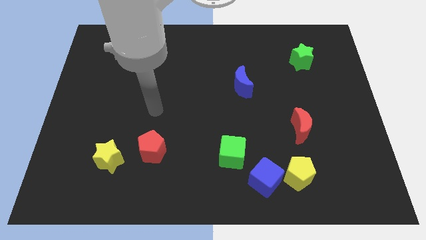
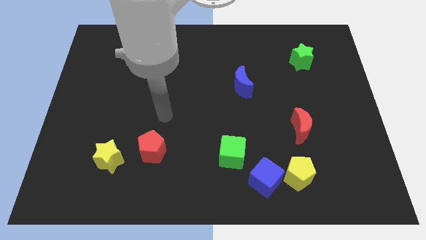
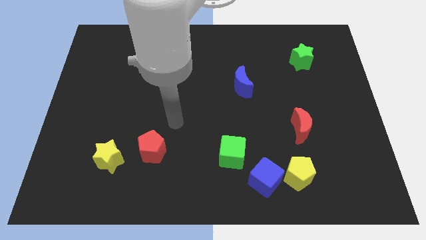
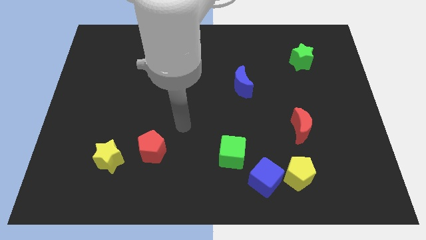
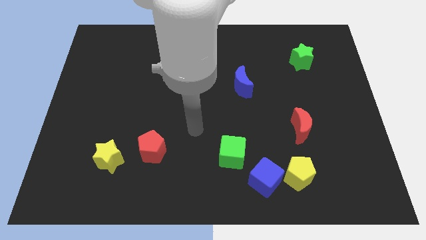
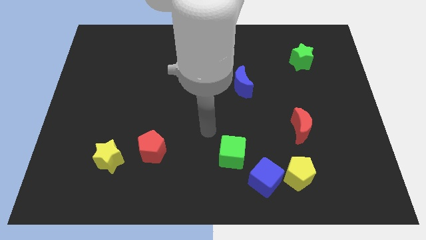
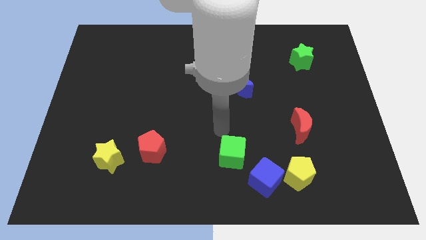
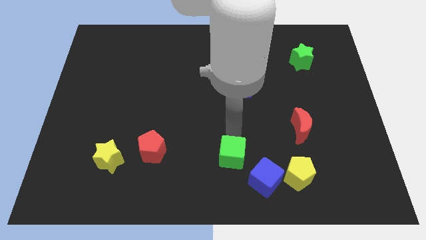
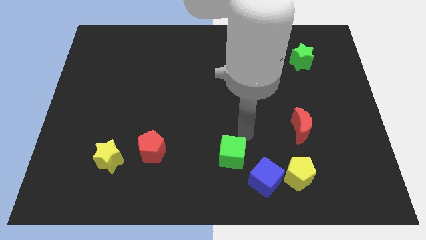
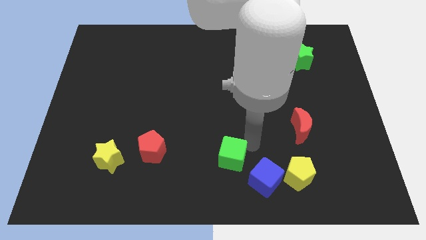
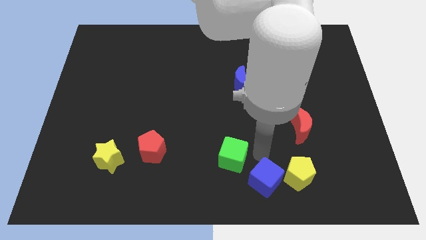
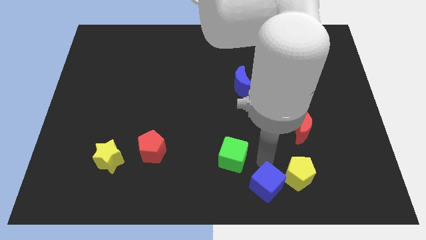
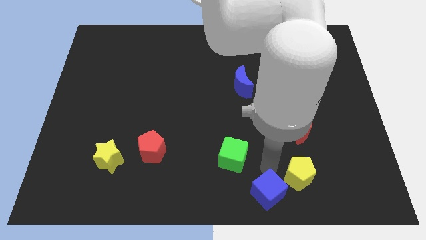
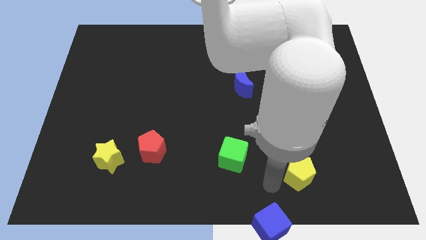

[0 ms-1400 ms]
pull the yellow pentagon apart from the blue cube

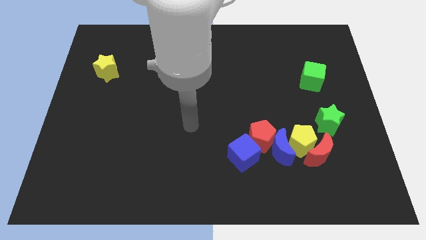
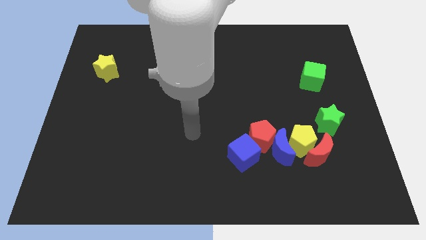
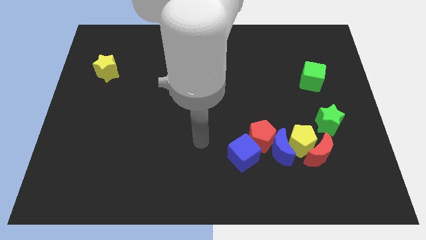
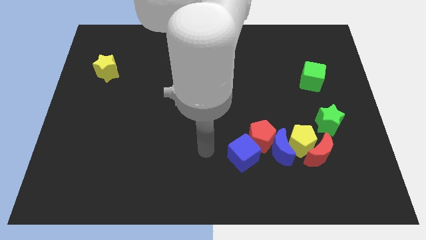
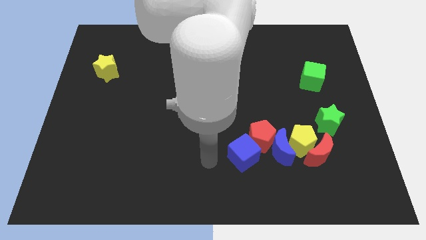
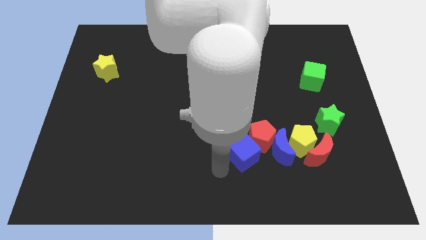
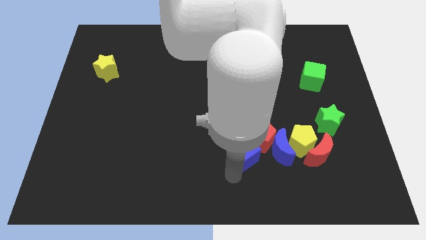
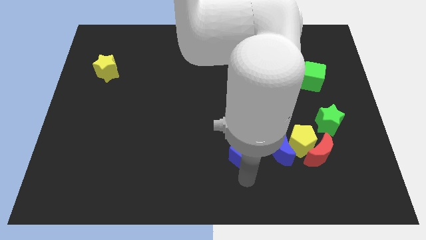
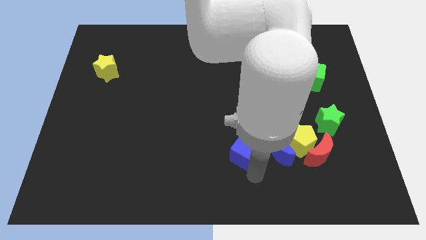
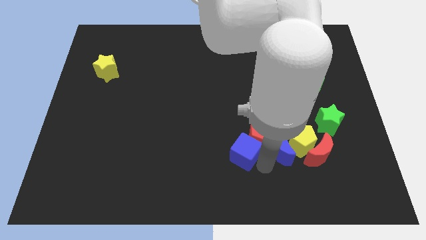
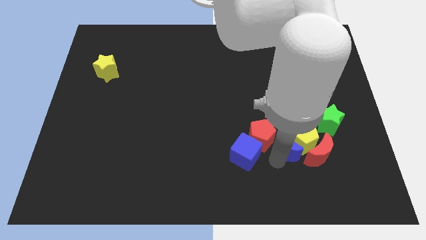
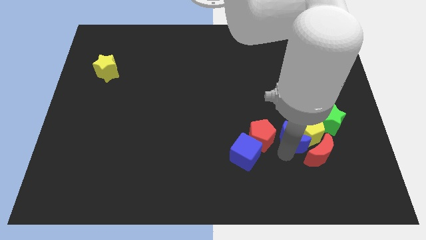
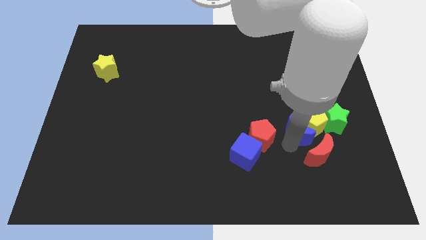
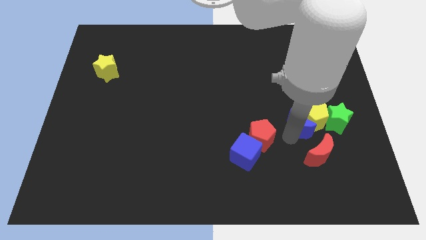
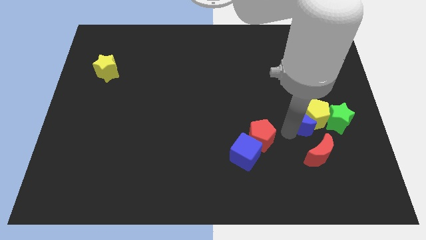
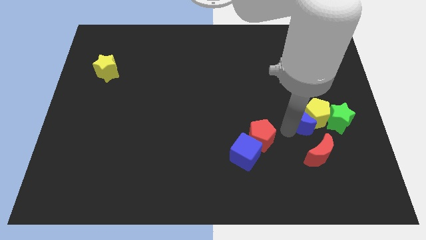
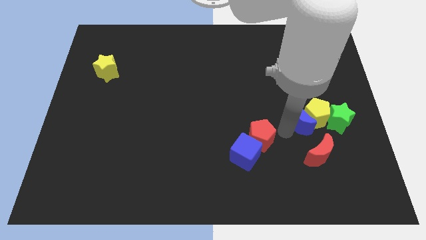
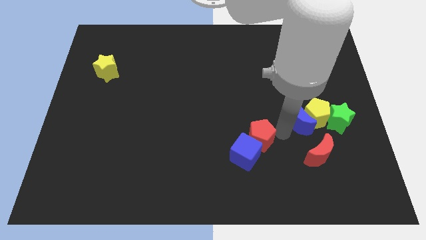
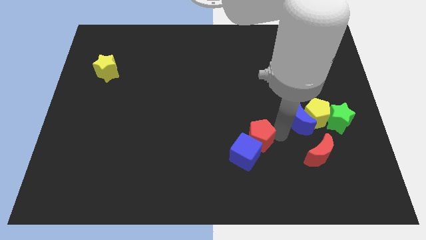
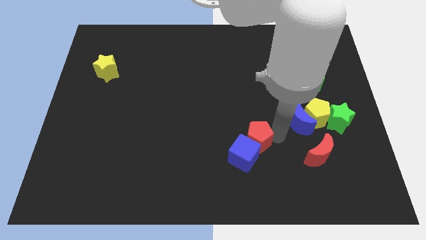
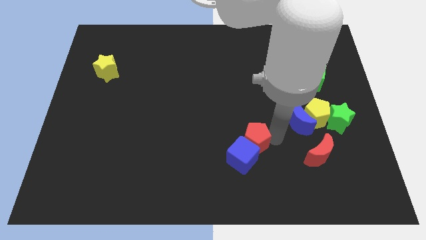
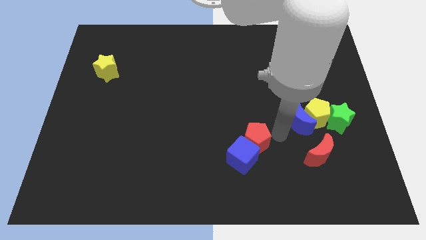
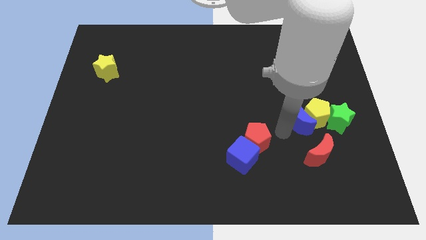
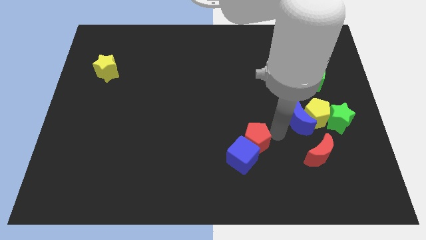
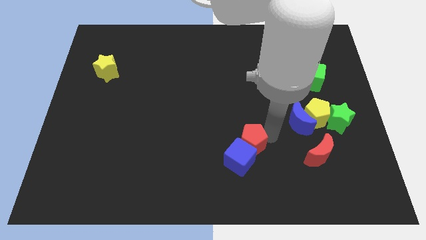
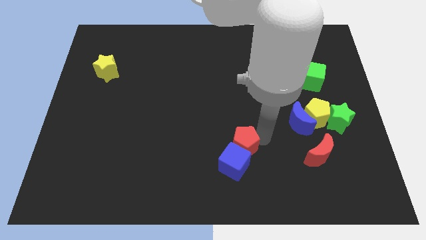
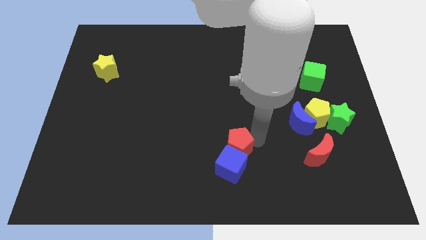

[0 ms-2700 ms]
pull the red pentagon apart from the blue moon, blue cube, and yellow pentagon

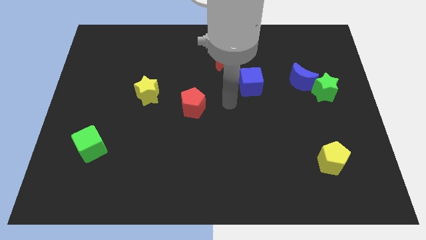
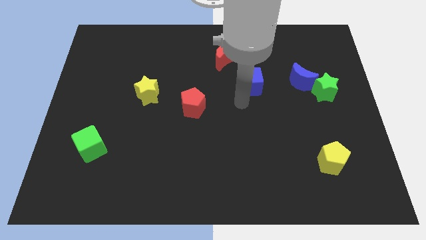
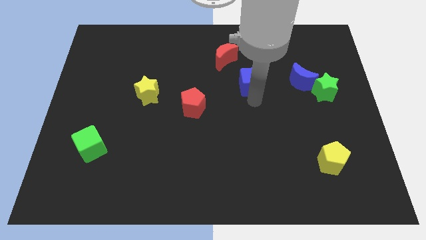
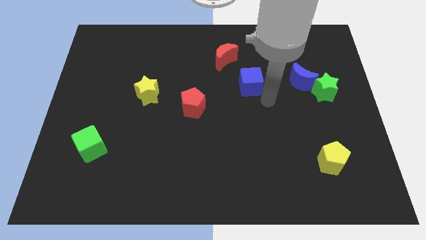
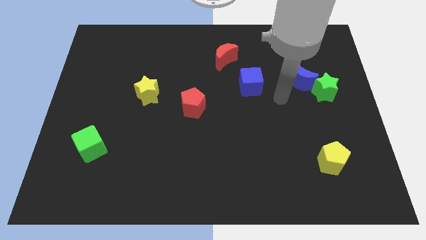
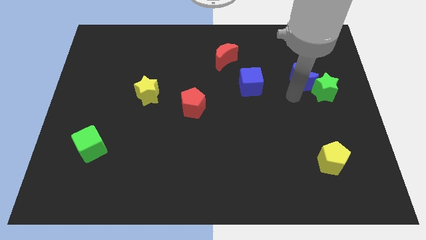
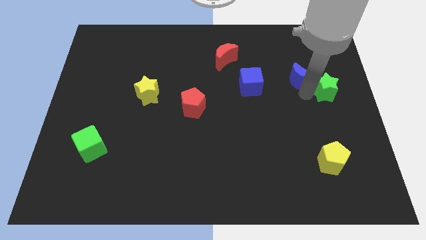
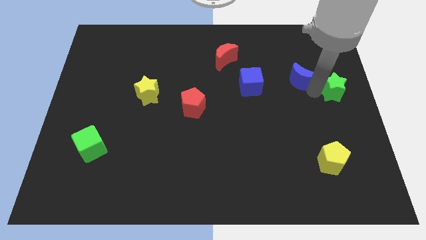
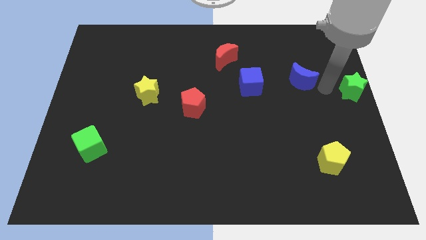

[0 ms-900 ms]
move the blue moon away from the green star

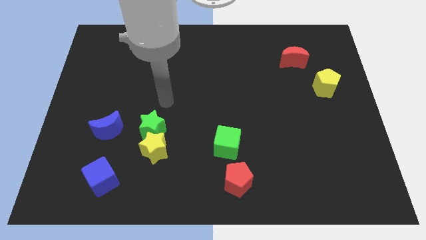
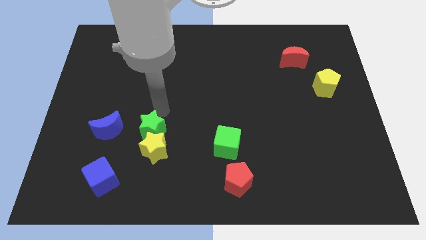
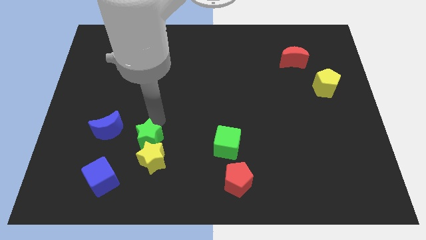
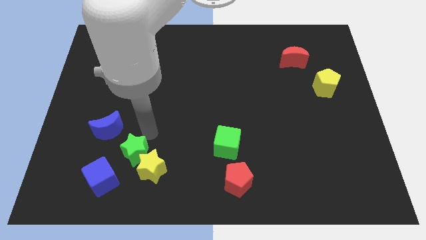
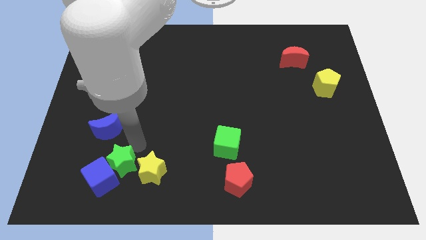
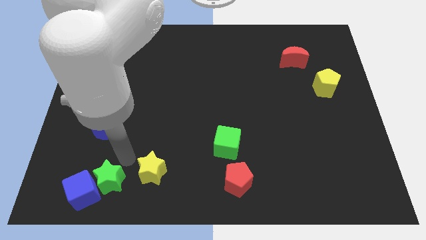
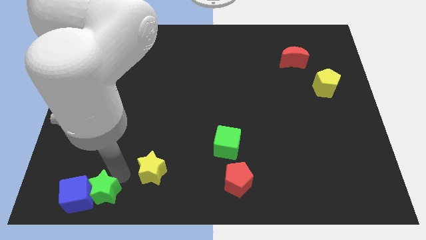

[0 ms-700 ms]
separate the yellow star from the green star

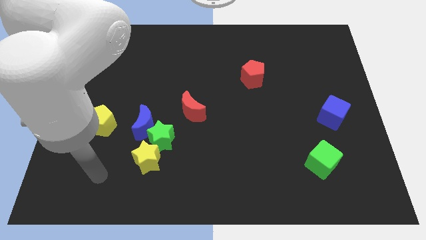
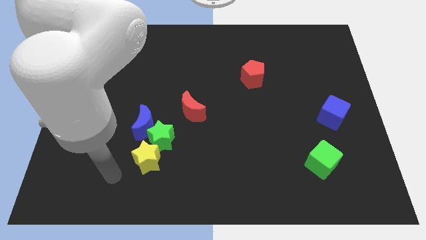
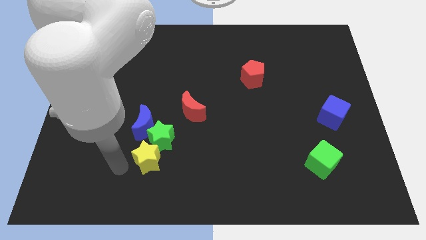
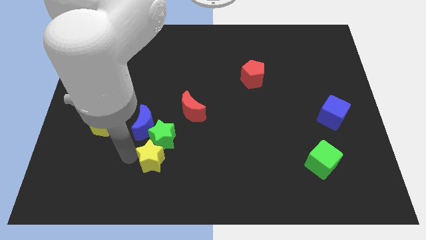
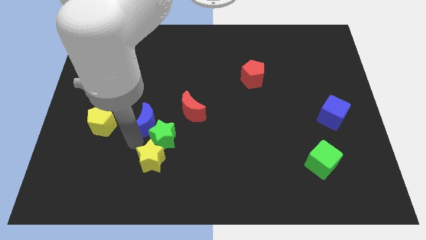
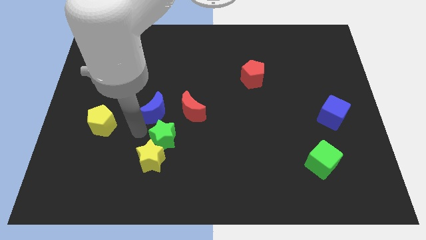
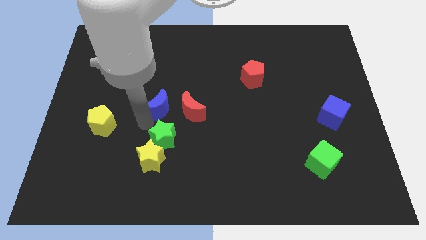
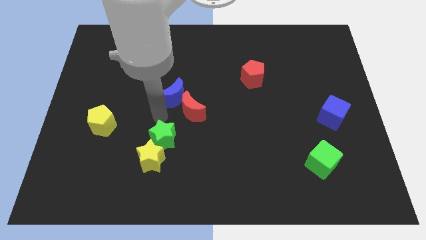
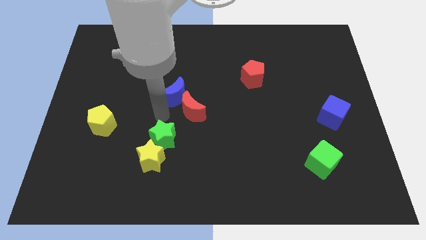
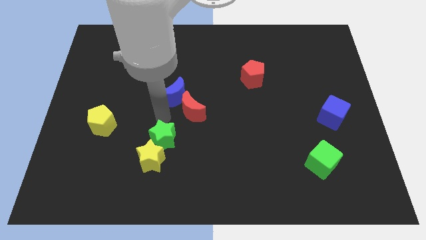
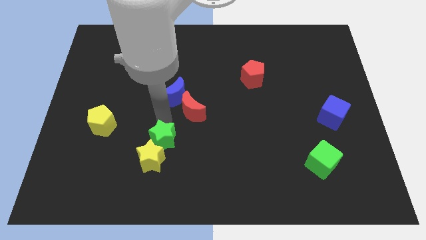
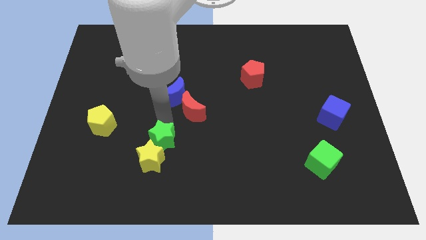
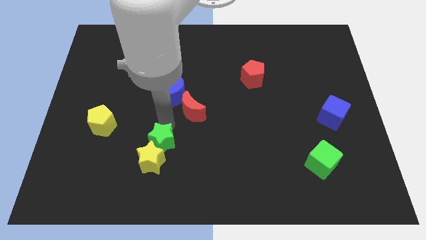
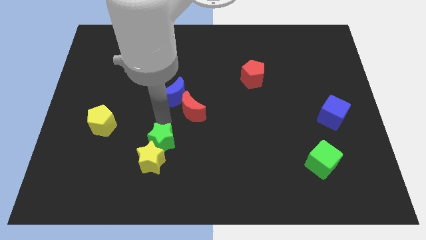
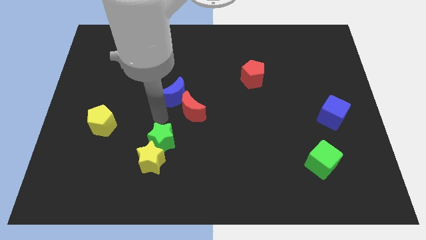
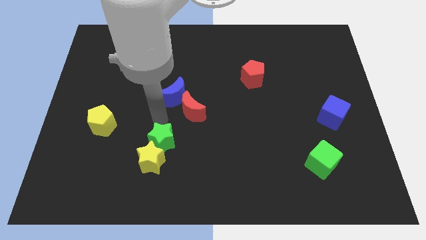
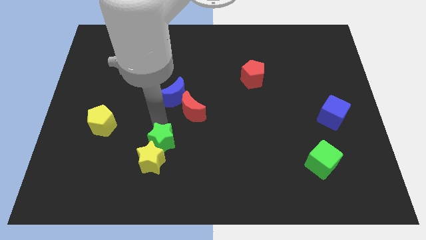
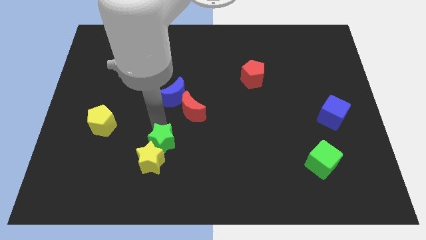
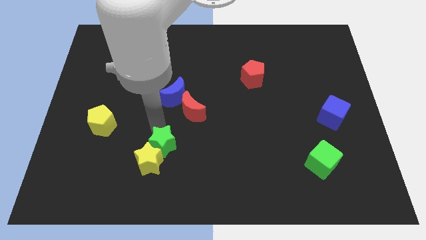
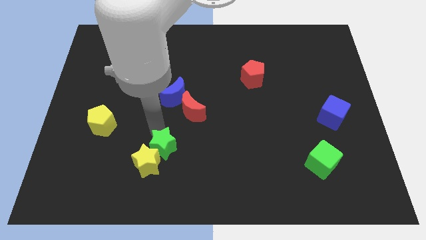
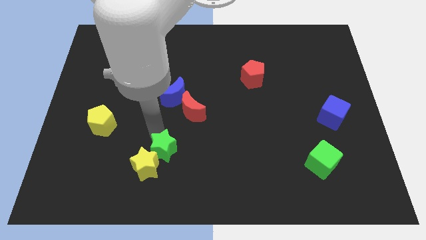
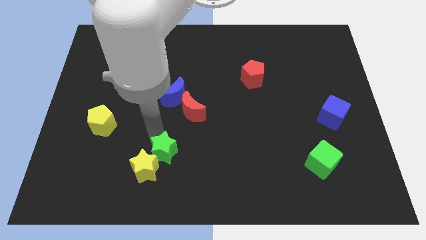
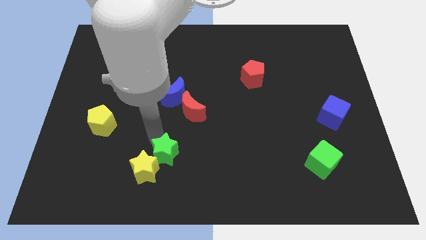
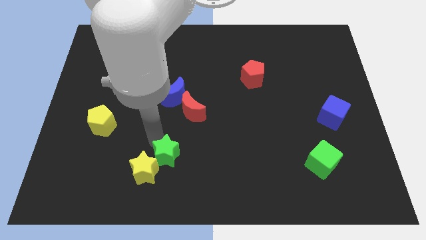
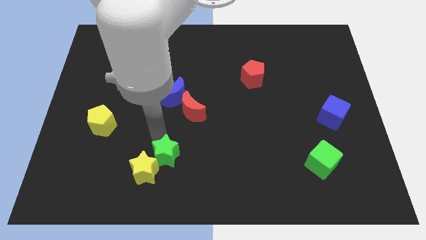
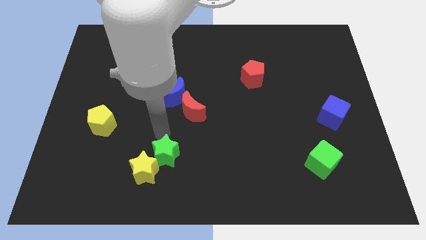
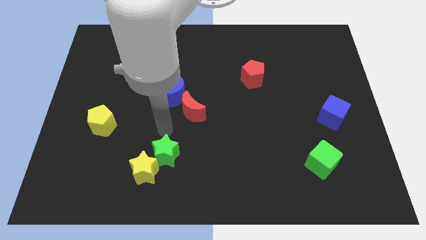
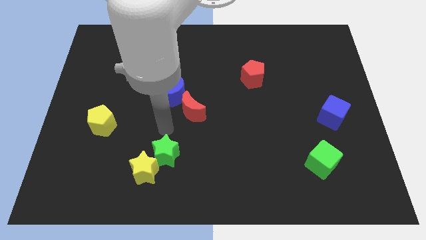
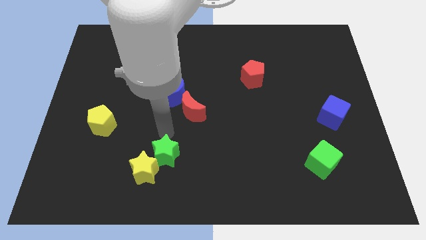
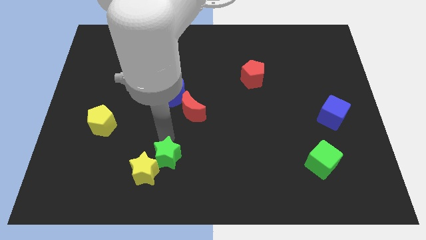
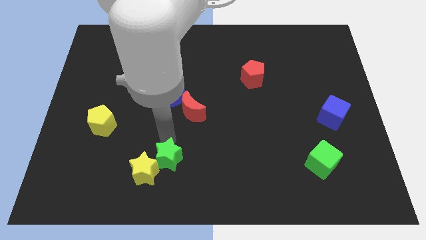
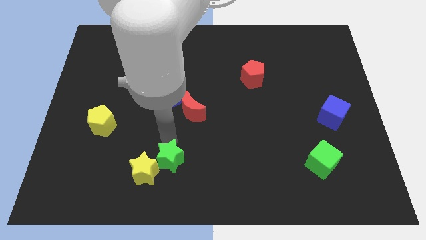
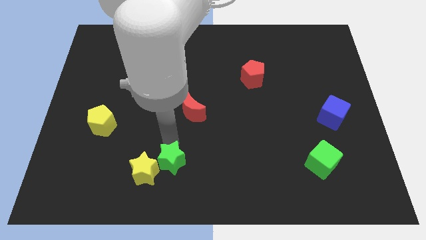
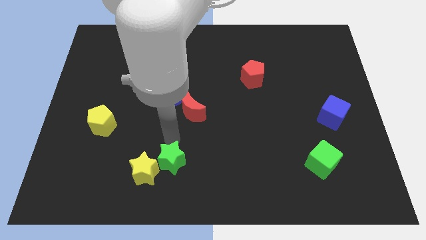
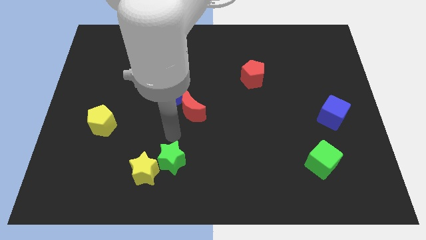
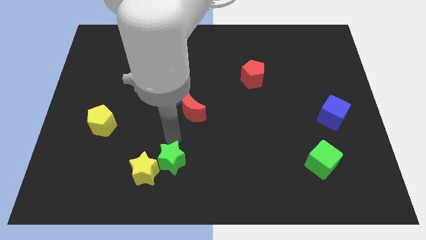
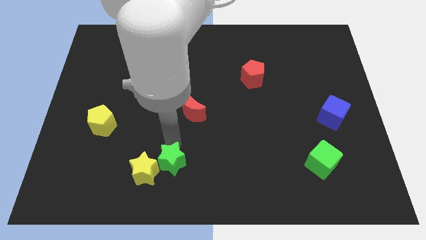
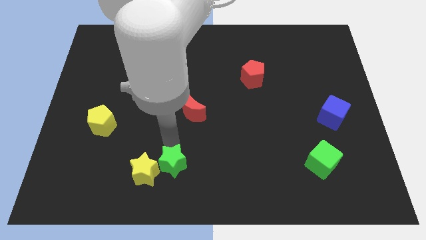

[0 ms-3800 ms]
pull the green star apart from the clump

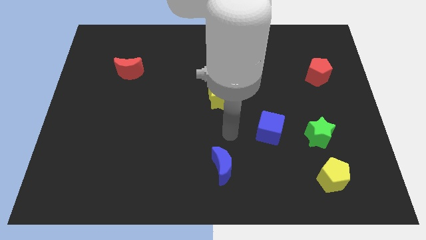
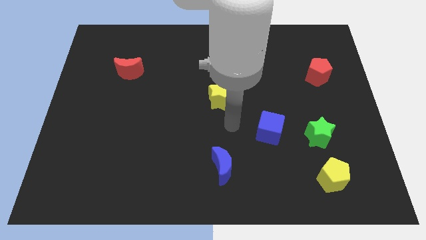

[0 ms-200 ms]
pull the green cube apart from the yellow star
